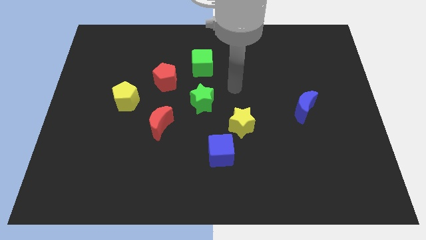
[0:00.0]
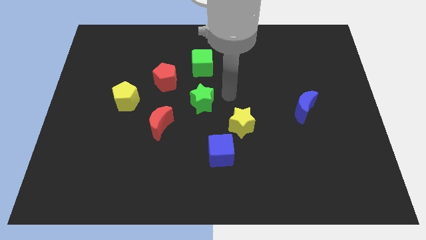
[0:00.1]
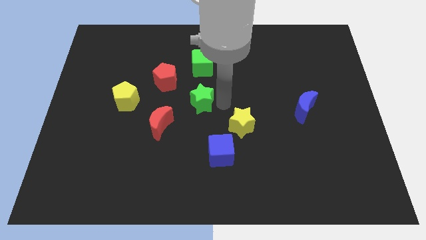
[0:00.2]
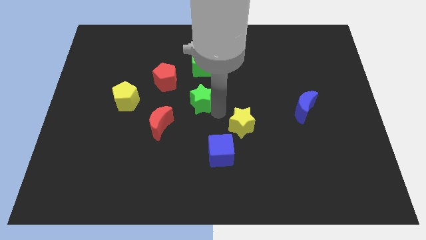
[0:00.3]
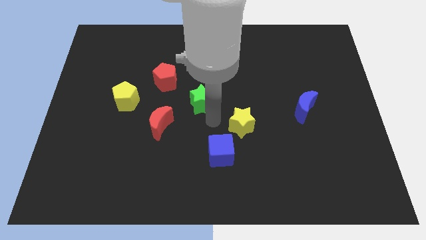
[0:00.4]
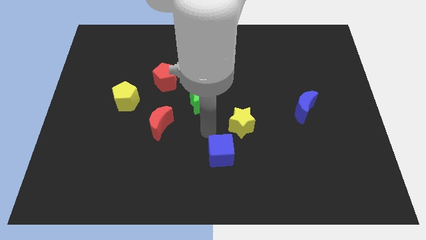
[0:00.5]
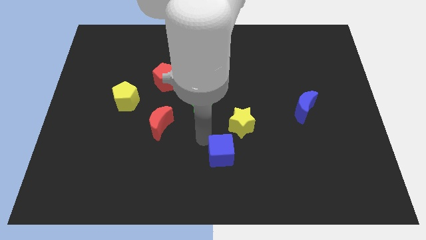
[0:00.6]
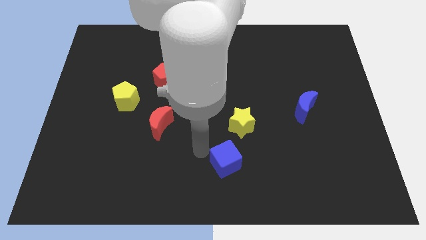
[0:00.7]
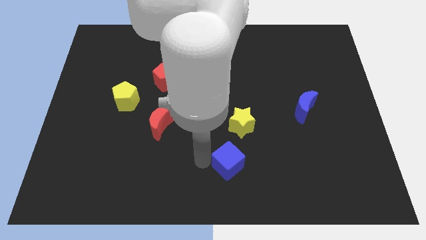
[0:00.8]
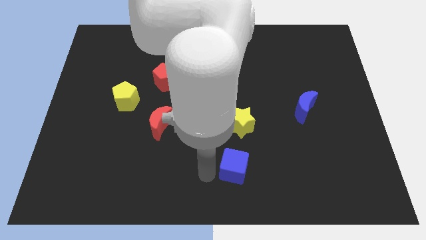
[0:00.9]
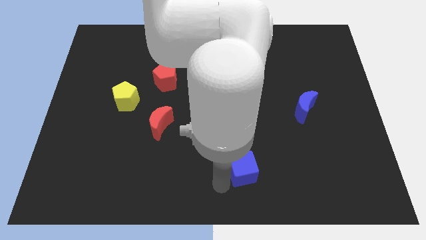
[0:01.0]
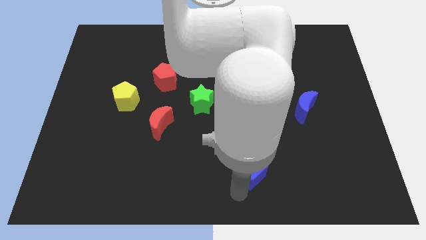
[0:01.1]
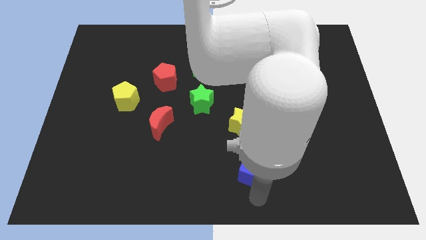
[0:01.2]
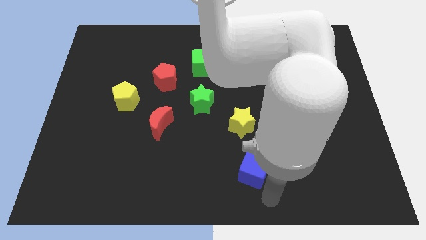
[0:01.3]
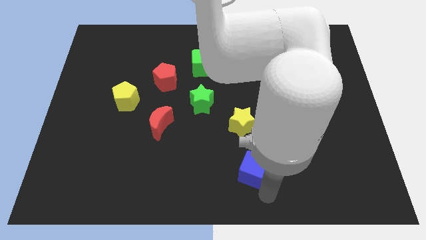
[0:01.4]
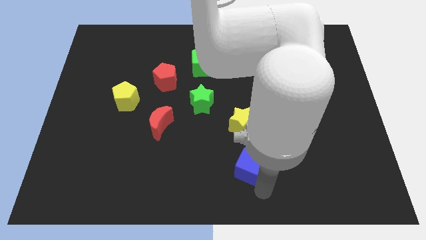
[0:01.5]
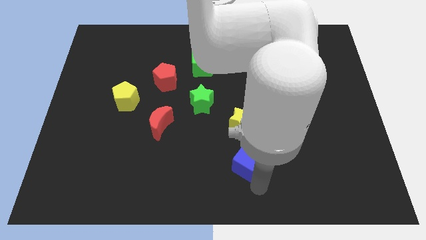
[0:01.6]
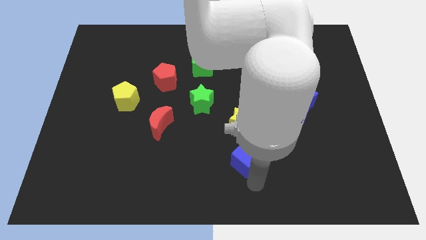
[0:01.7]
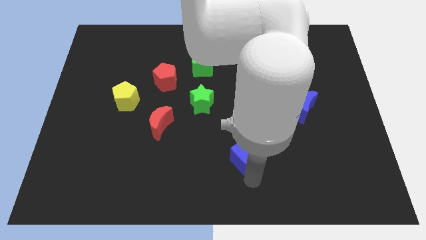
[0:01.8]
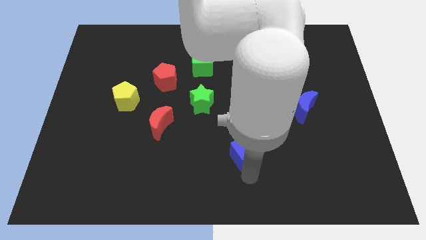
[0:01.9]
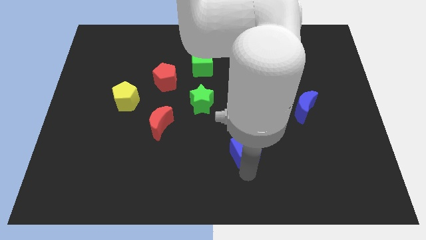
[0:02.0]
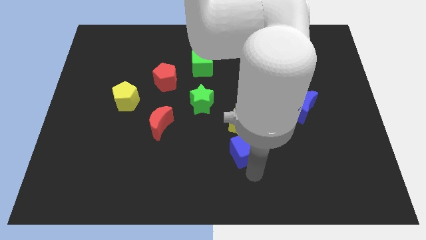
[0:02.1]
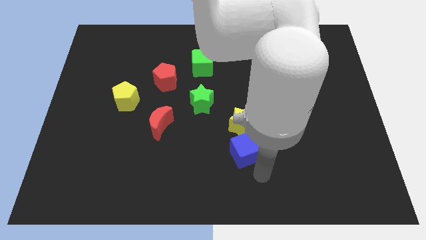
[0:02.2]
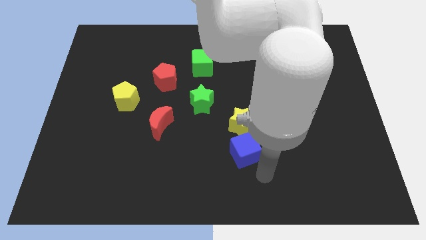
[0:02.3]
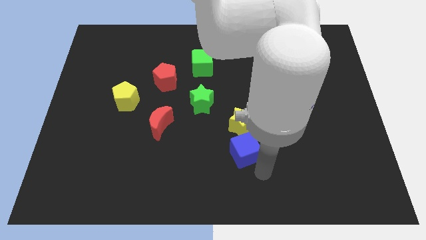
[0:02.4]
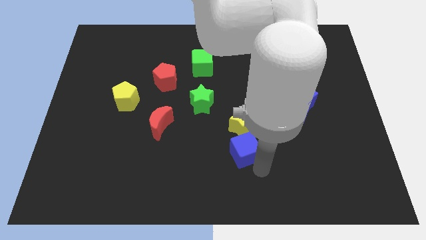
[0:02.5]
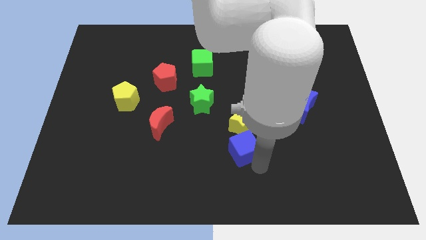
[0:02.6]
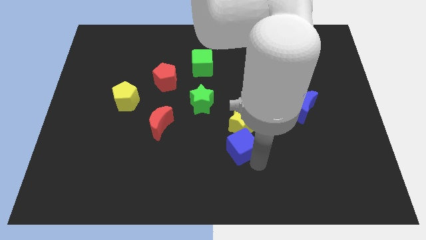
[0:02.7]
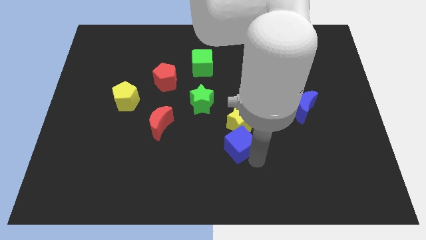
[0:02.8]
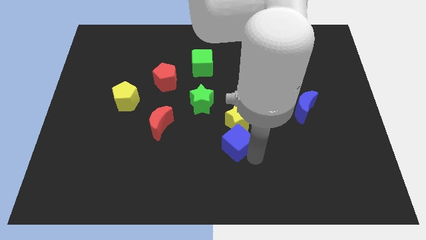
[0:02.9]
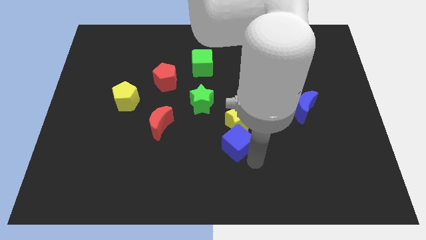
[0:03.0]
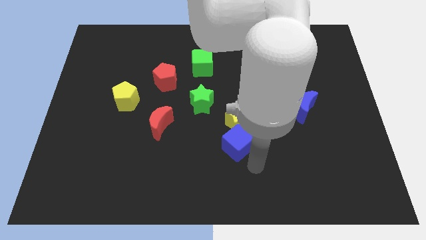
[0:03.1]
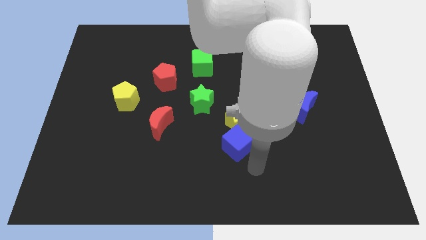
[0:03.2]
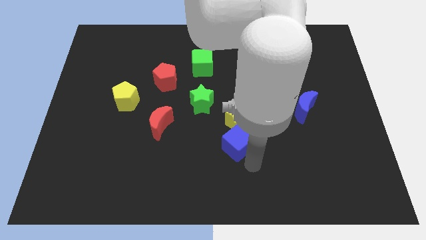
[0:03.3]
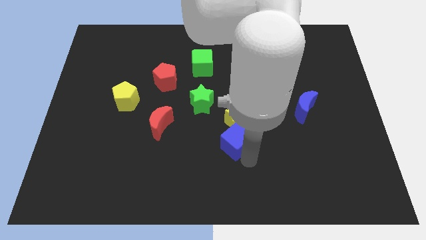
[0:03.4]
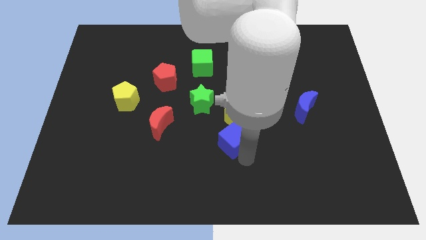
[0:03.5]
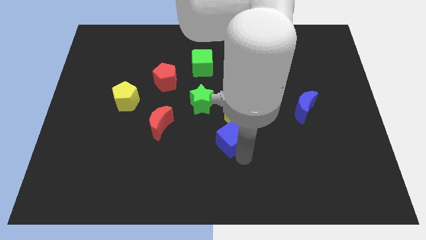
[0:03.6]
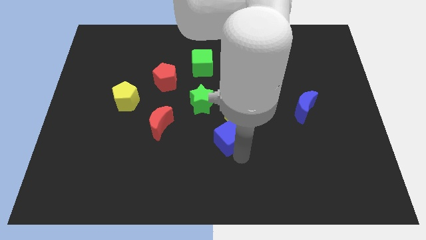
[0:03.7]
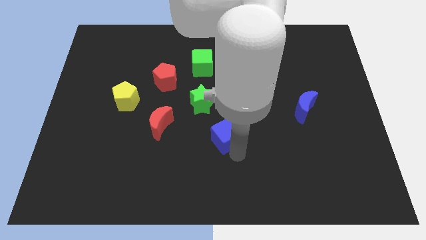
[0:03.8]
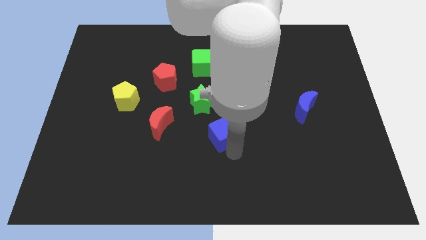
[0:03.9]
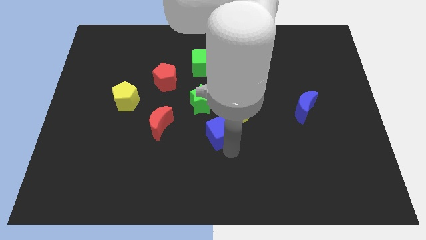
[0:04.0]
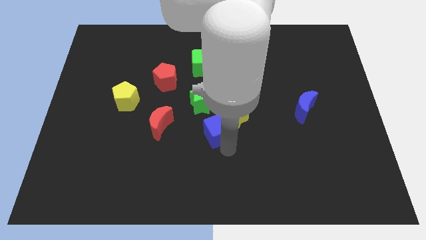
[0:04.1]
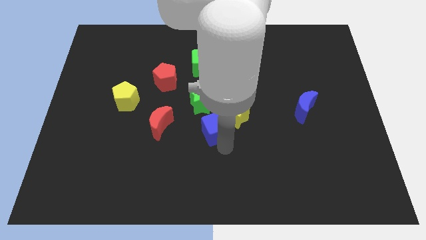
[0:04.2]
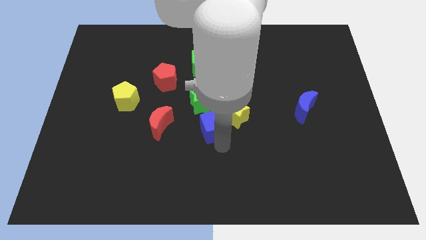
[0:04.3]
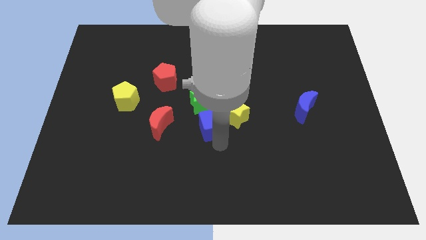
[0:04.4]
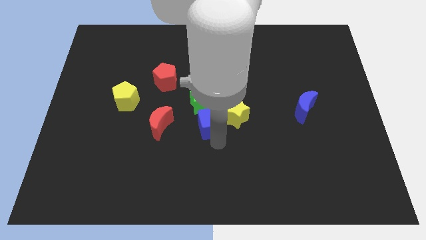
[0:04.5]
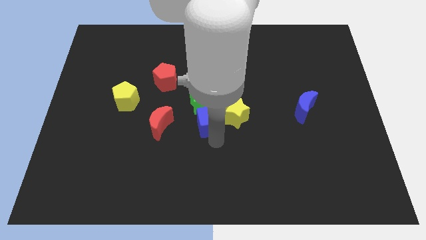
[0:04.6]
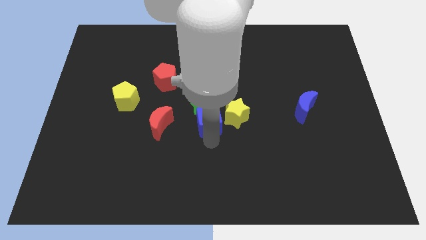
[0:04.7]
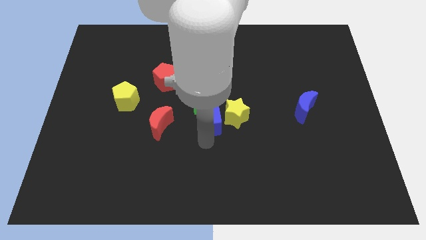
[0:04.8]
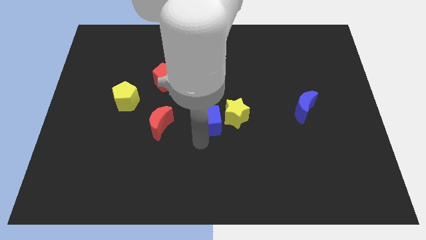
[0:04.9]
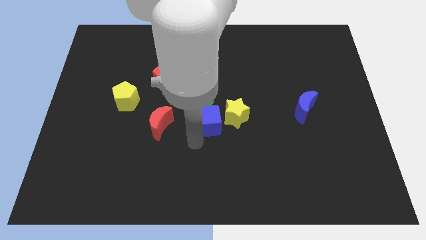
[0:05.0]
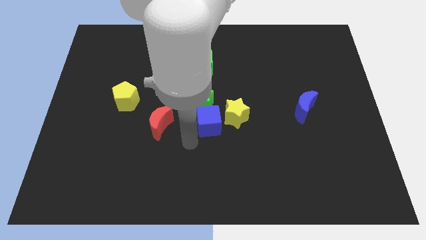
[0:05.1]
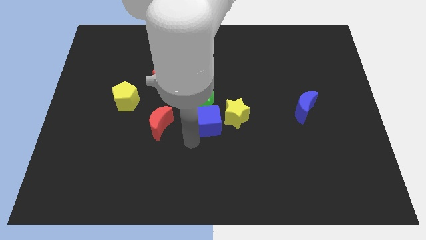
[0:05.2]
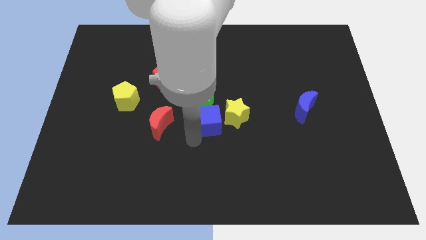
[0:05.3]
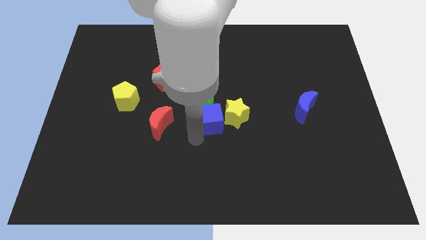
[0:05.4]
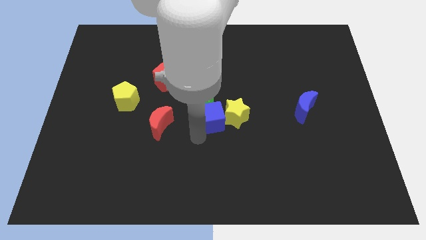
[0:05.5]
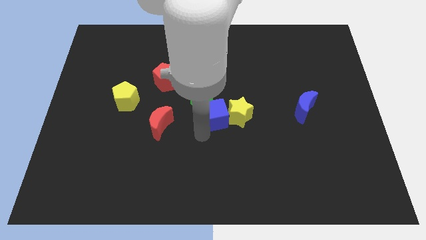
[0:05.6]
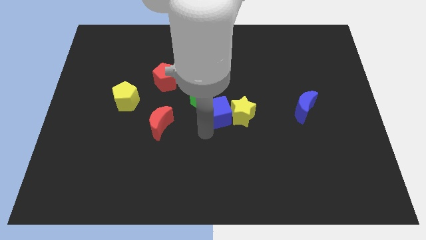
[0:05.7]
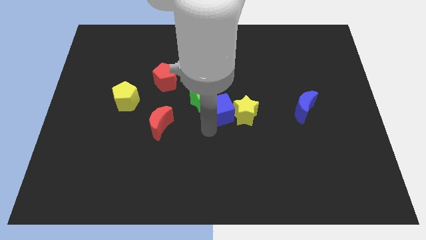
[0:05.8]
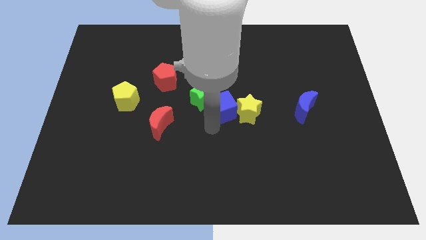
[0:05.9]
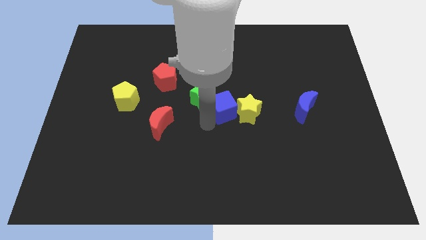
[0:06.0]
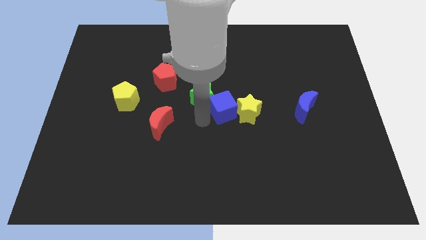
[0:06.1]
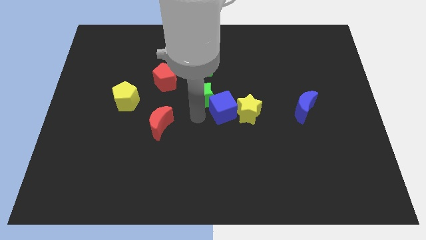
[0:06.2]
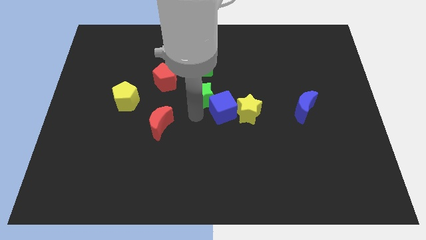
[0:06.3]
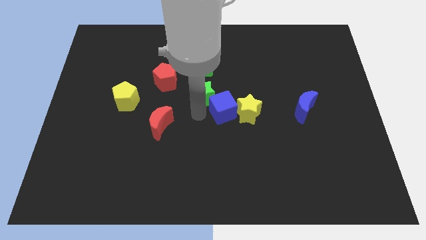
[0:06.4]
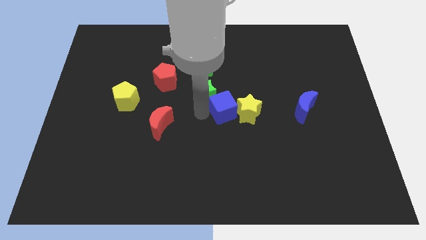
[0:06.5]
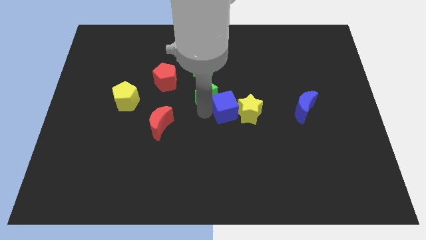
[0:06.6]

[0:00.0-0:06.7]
push the blue cube a bit up and then to the right

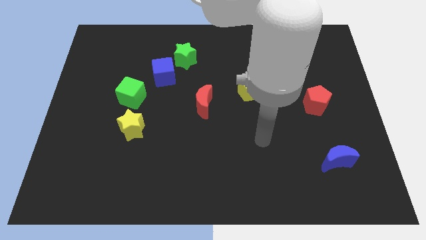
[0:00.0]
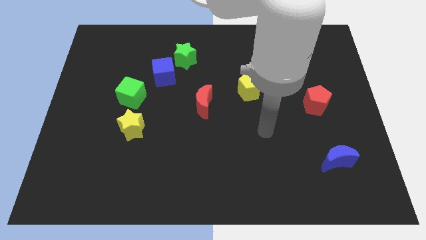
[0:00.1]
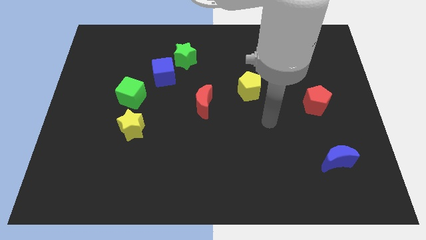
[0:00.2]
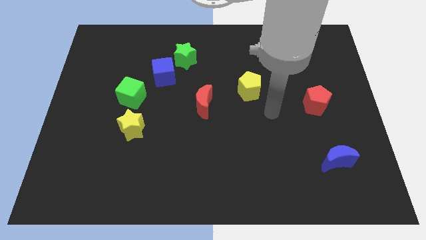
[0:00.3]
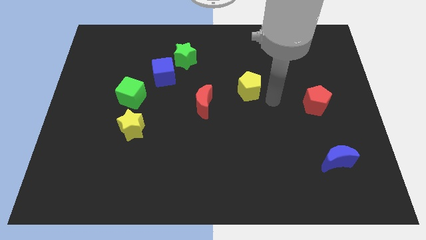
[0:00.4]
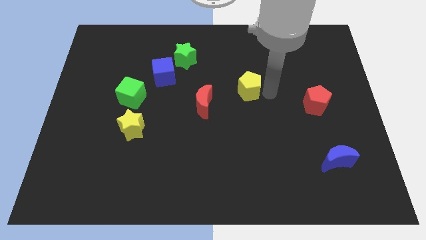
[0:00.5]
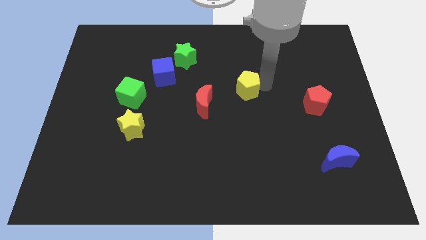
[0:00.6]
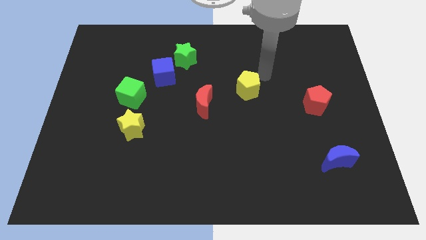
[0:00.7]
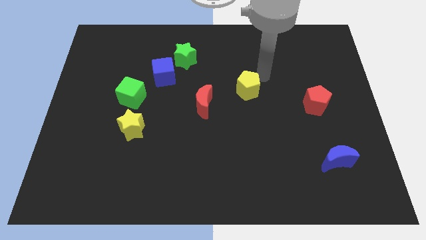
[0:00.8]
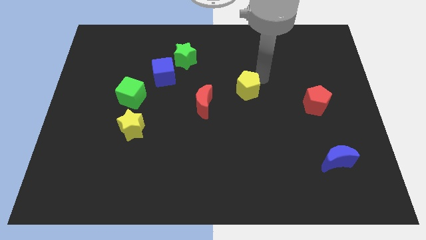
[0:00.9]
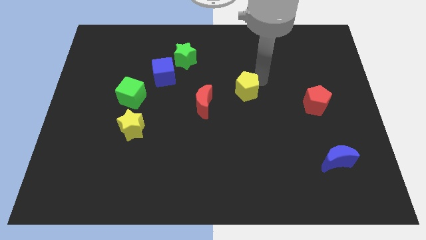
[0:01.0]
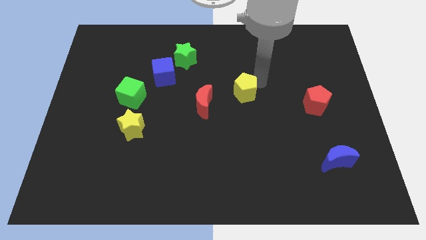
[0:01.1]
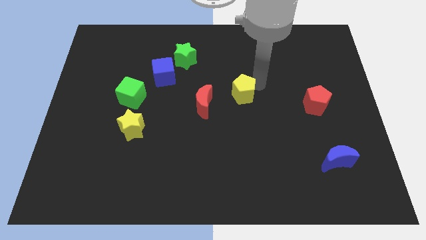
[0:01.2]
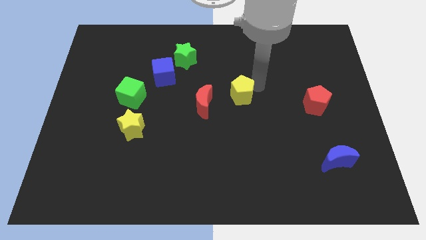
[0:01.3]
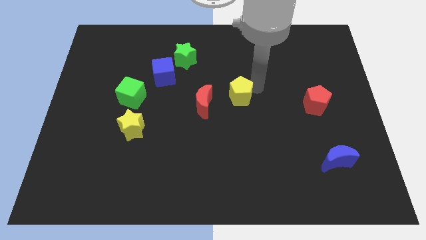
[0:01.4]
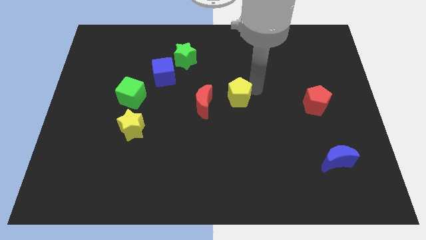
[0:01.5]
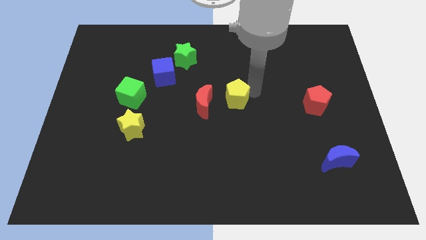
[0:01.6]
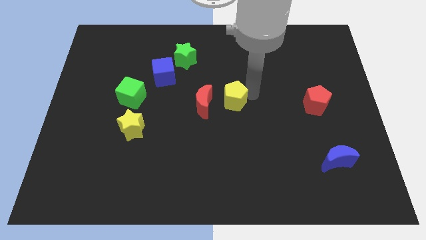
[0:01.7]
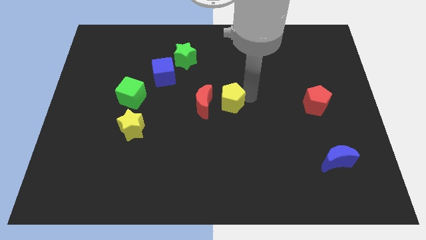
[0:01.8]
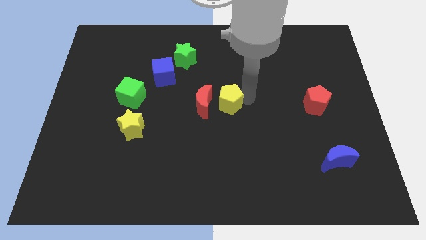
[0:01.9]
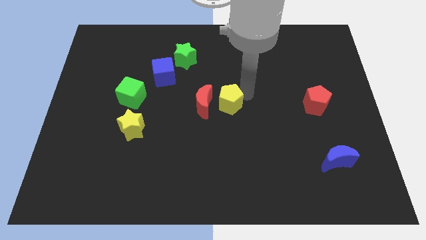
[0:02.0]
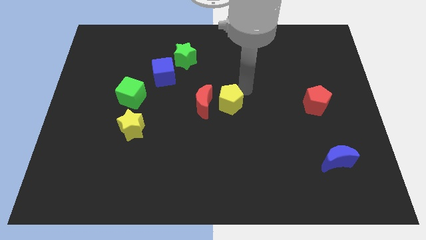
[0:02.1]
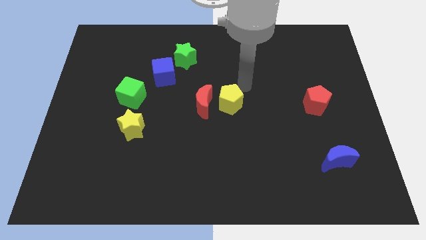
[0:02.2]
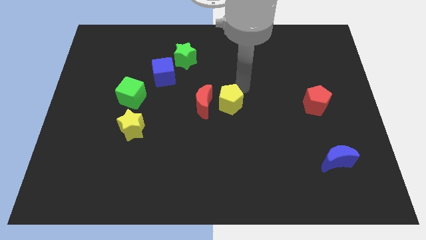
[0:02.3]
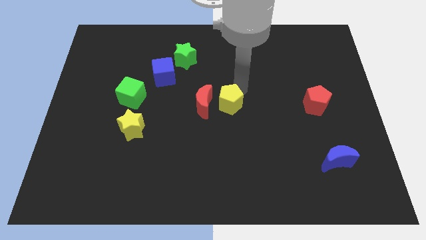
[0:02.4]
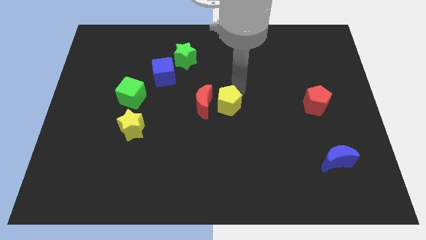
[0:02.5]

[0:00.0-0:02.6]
move the yellow pentagon somewhat down and left
